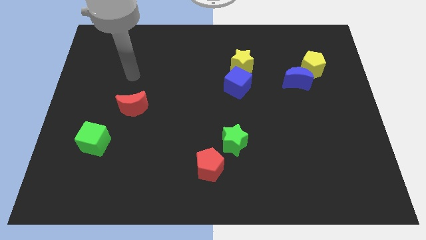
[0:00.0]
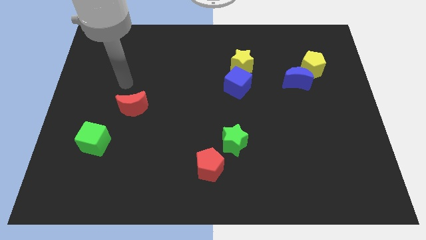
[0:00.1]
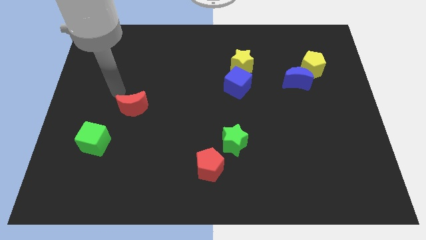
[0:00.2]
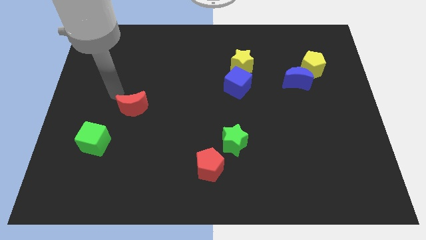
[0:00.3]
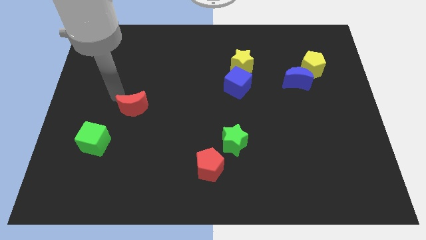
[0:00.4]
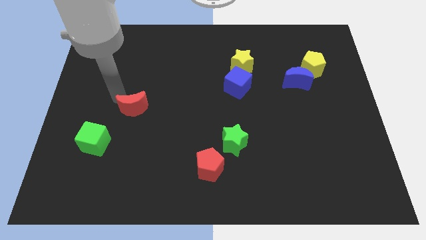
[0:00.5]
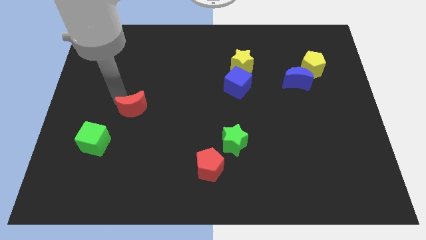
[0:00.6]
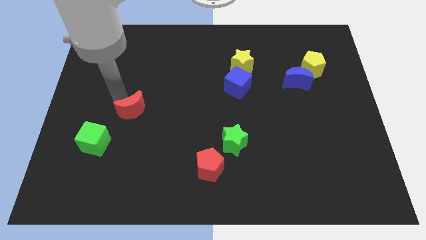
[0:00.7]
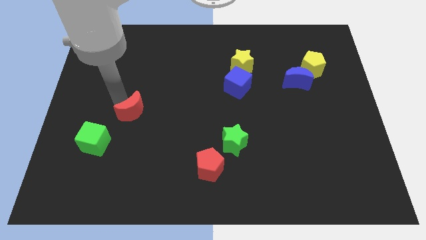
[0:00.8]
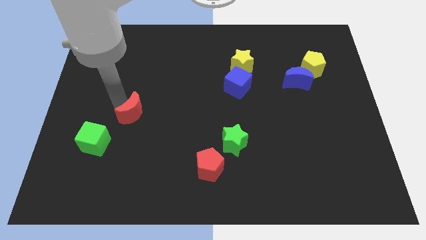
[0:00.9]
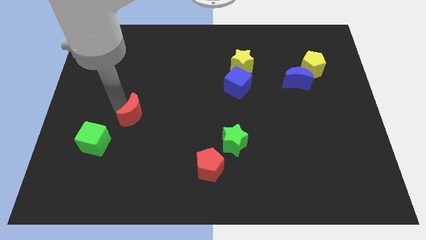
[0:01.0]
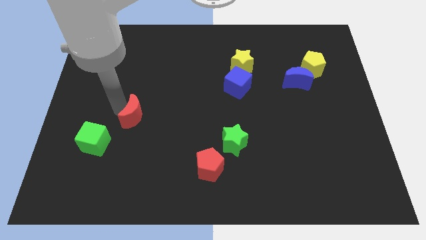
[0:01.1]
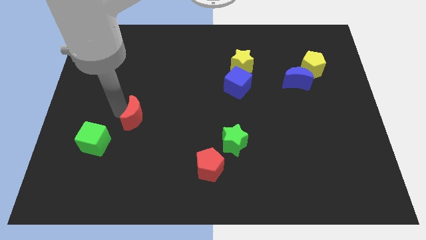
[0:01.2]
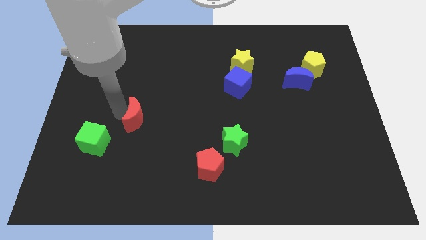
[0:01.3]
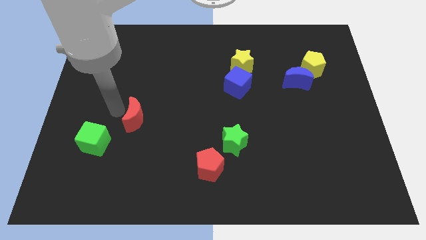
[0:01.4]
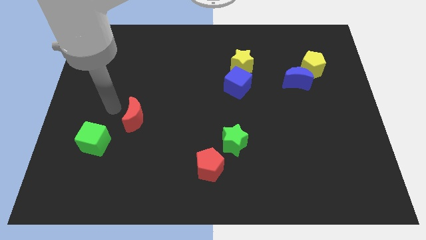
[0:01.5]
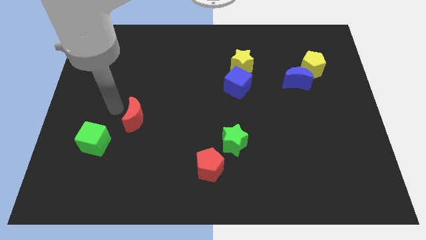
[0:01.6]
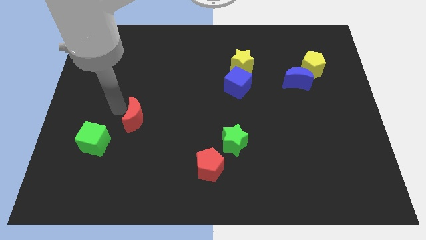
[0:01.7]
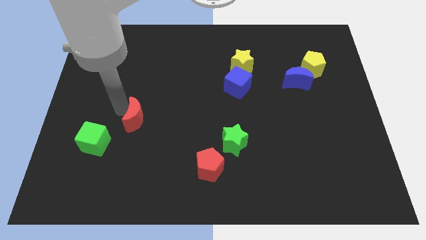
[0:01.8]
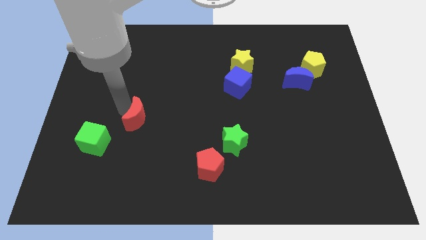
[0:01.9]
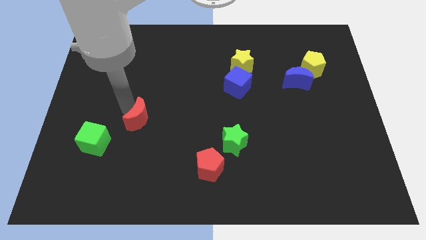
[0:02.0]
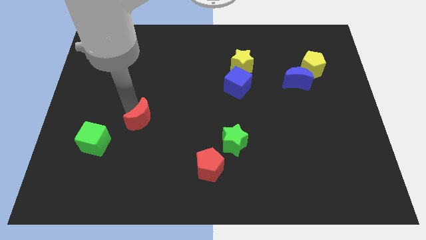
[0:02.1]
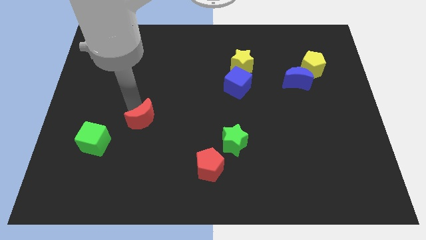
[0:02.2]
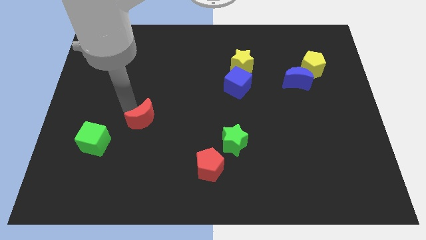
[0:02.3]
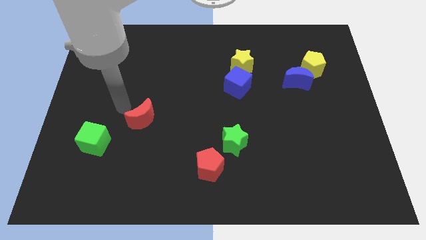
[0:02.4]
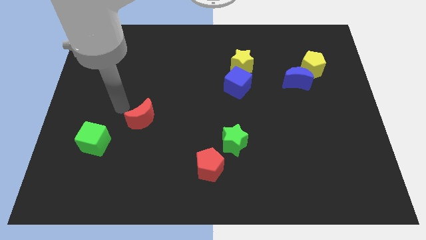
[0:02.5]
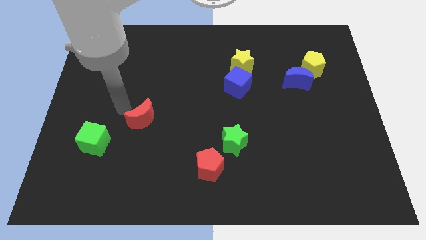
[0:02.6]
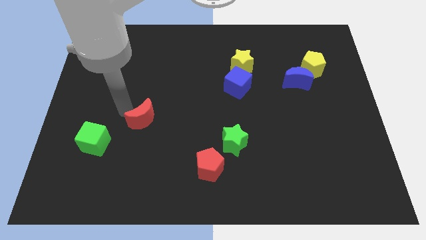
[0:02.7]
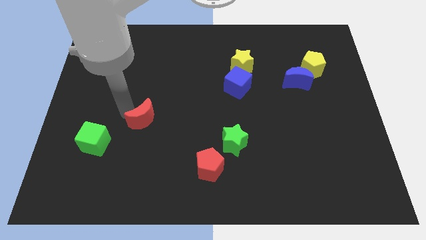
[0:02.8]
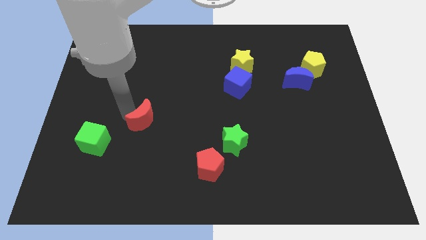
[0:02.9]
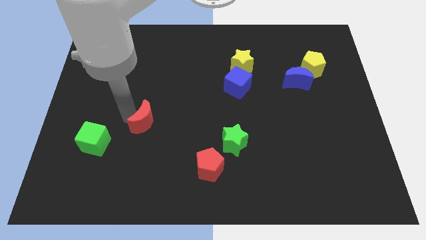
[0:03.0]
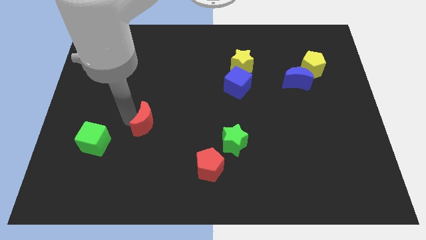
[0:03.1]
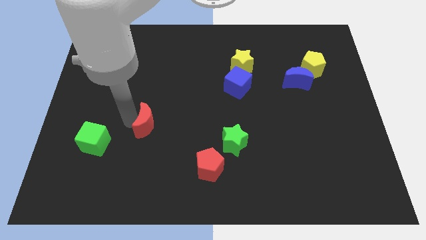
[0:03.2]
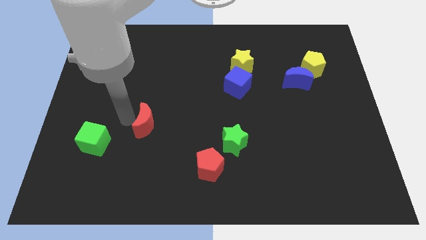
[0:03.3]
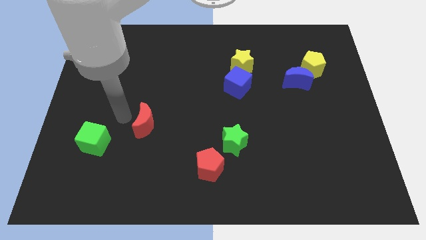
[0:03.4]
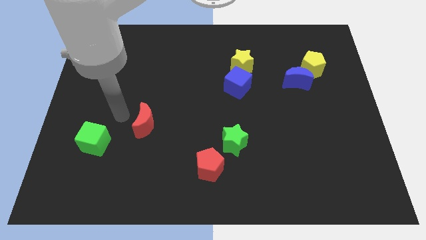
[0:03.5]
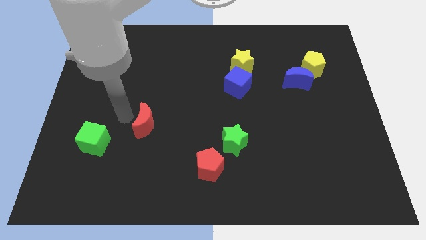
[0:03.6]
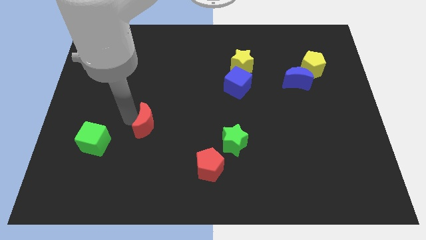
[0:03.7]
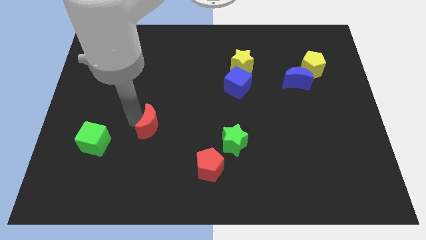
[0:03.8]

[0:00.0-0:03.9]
move the red moon diagonally down and right somewhat

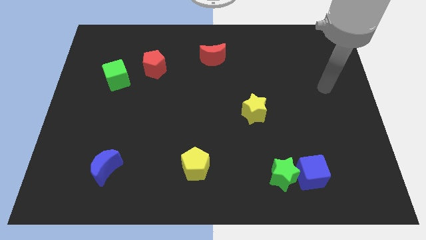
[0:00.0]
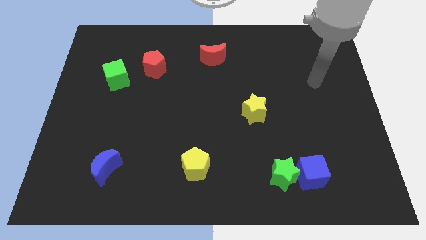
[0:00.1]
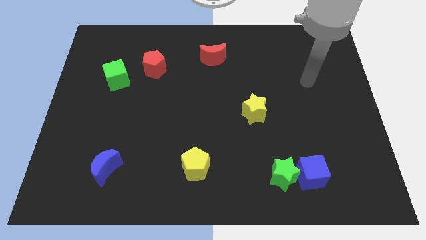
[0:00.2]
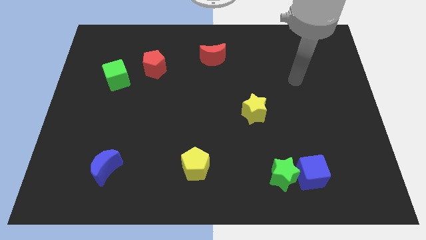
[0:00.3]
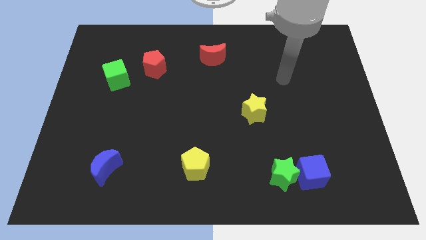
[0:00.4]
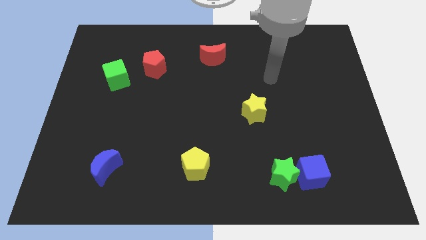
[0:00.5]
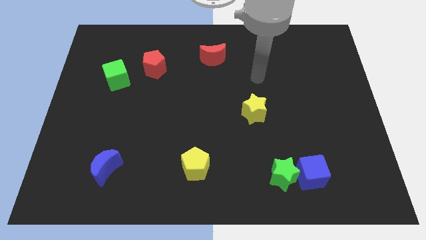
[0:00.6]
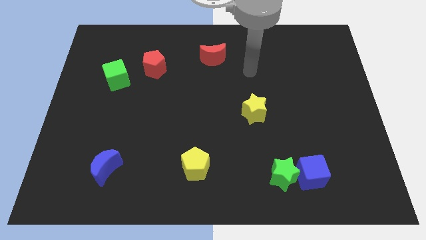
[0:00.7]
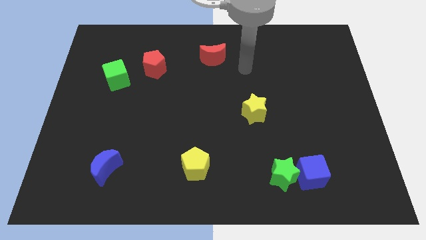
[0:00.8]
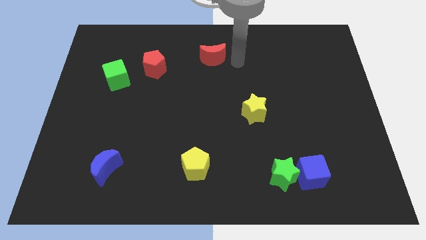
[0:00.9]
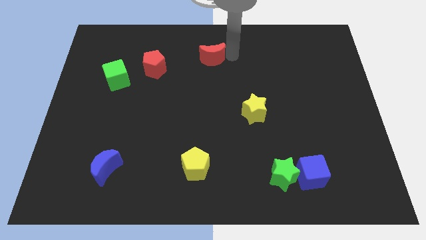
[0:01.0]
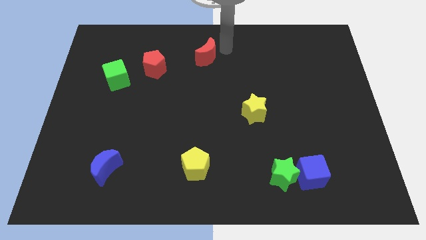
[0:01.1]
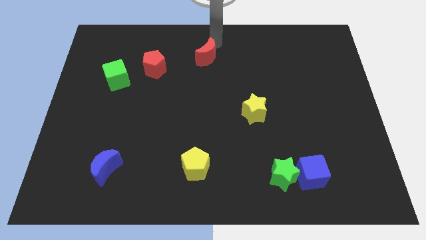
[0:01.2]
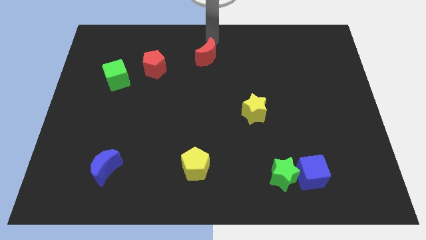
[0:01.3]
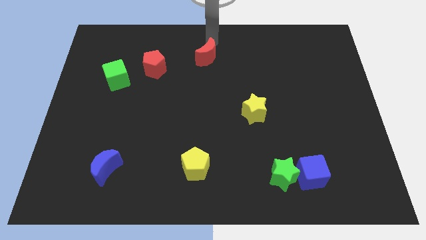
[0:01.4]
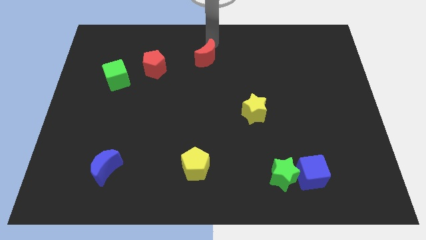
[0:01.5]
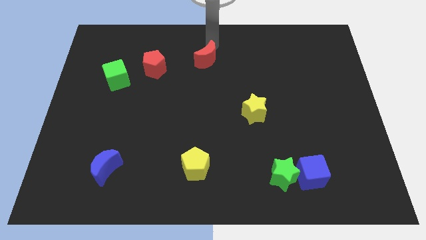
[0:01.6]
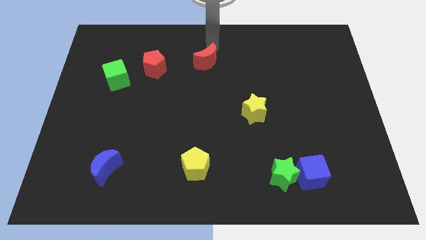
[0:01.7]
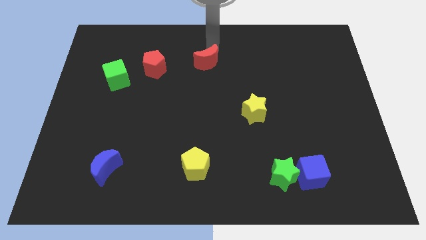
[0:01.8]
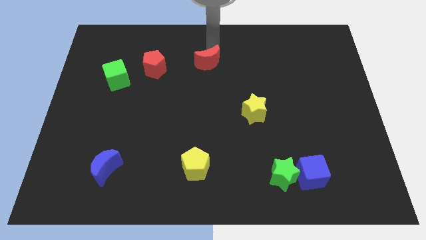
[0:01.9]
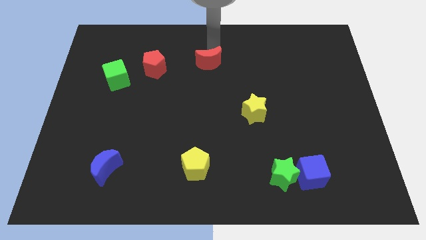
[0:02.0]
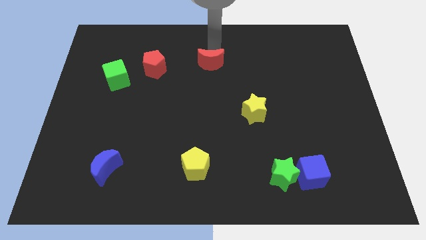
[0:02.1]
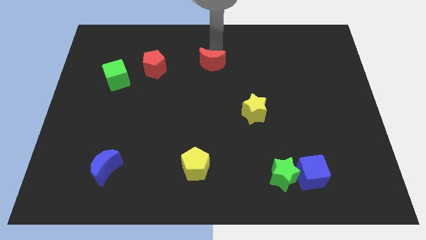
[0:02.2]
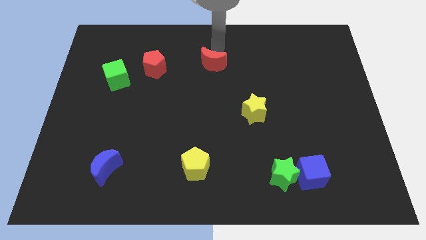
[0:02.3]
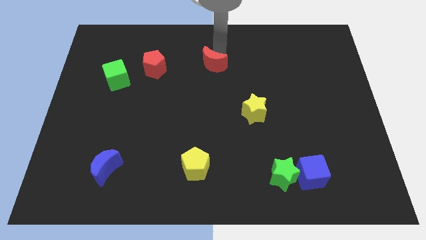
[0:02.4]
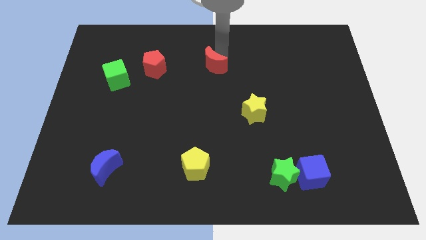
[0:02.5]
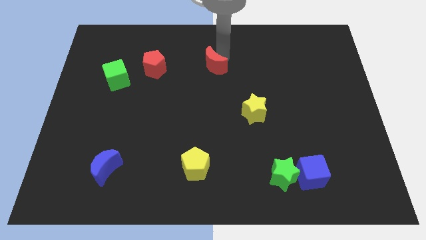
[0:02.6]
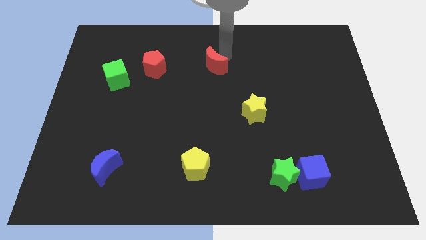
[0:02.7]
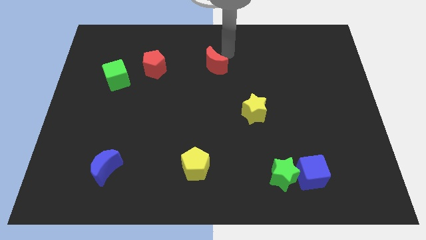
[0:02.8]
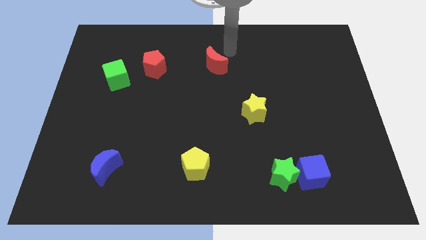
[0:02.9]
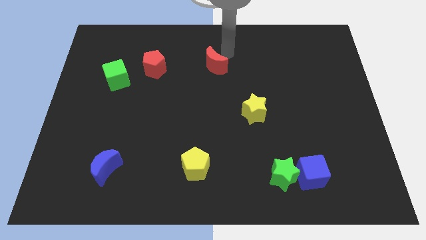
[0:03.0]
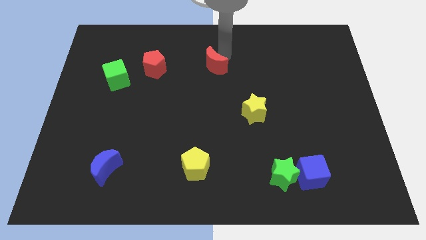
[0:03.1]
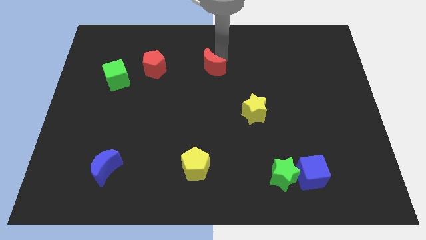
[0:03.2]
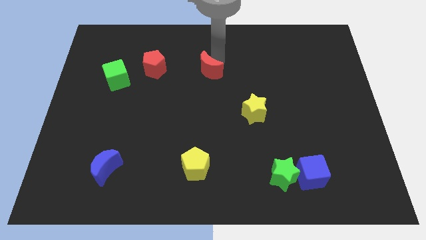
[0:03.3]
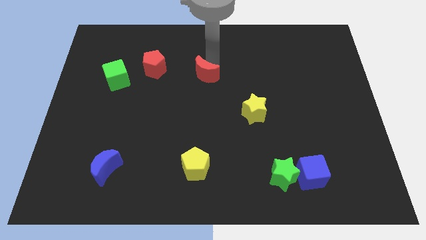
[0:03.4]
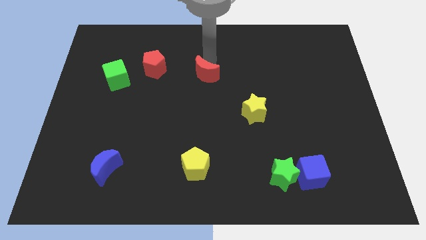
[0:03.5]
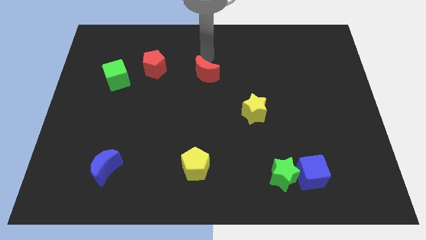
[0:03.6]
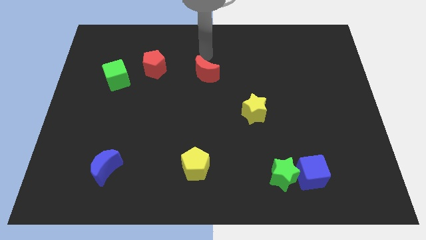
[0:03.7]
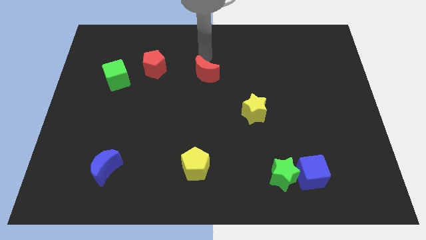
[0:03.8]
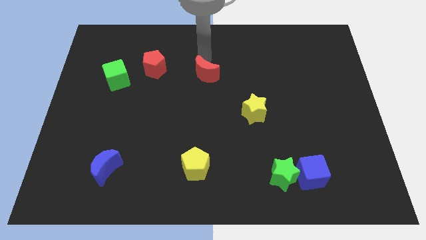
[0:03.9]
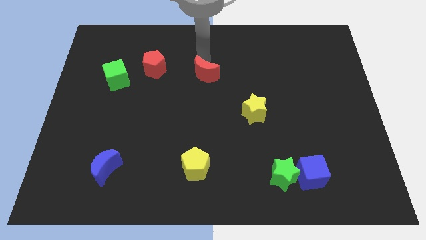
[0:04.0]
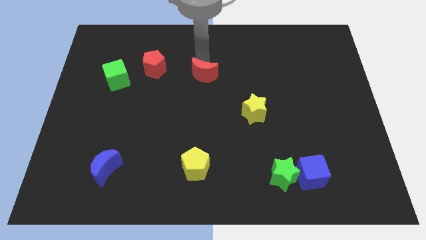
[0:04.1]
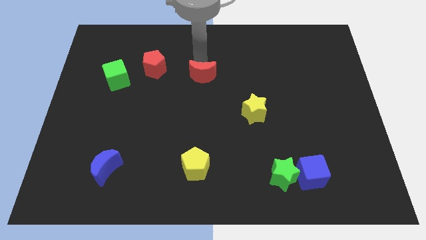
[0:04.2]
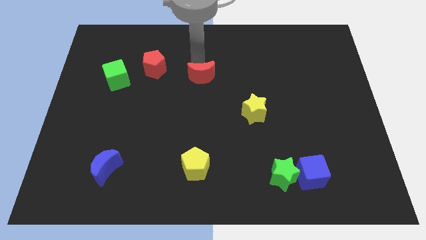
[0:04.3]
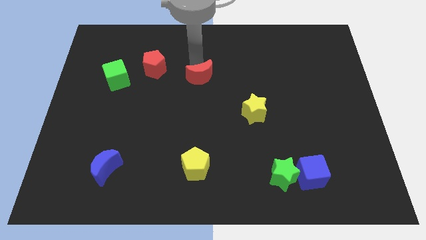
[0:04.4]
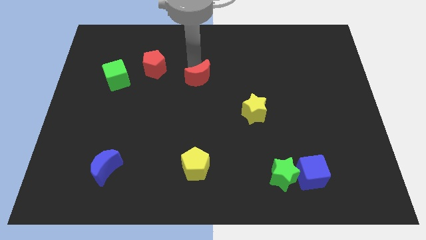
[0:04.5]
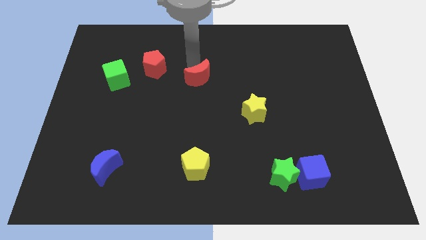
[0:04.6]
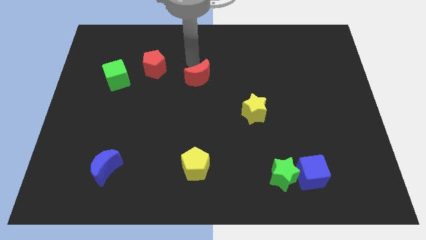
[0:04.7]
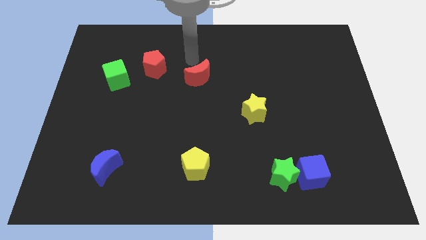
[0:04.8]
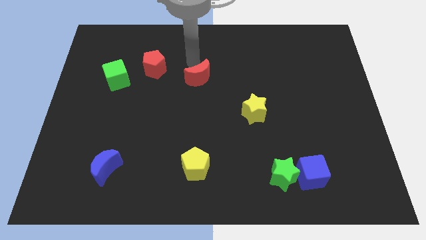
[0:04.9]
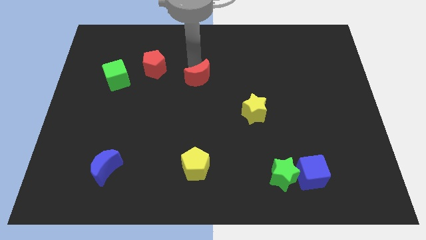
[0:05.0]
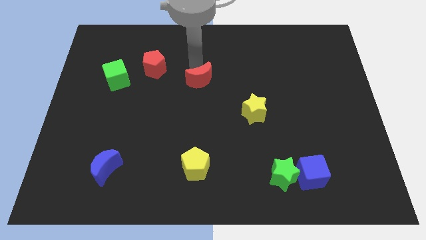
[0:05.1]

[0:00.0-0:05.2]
slightly push the red moon downwards
